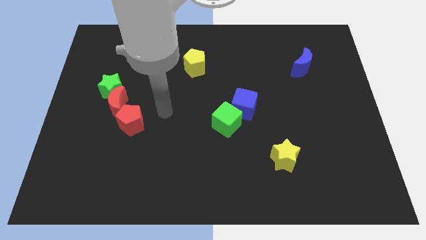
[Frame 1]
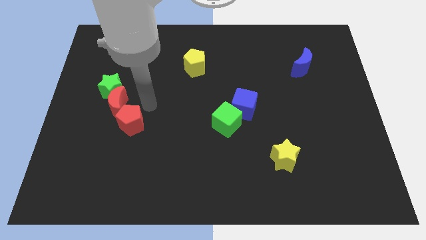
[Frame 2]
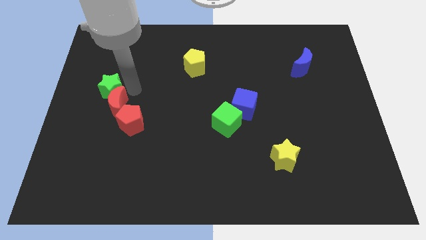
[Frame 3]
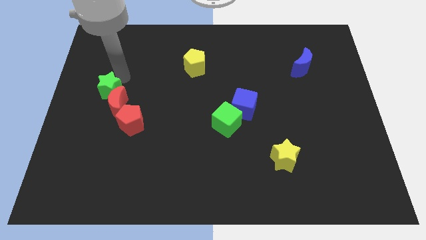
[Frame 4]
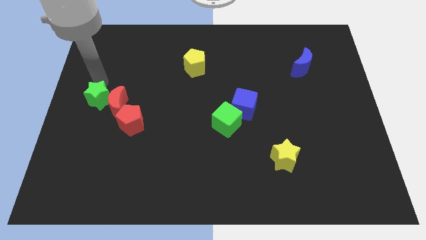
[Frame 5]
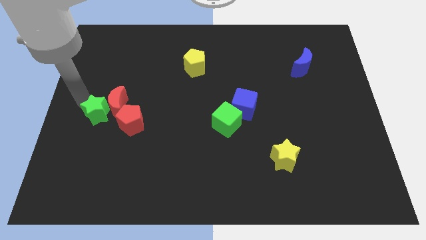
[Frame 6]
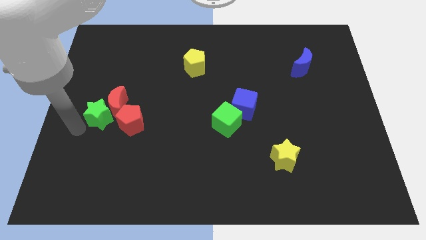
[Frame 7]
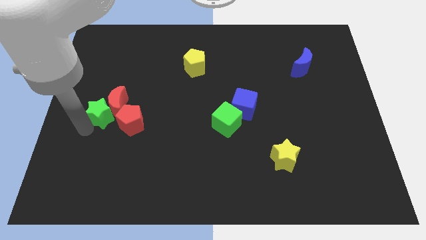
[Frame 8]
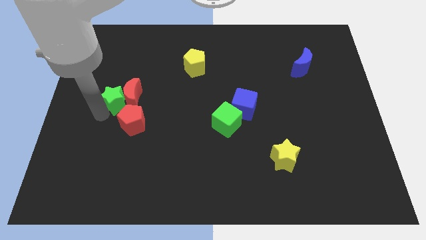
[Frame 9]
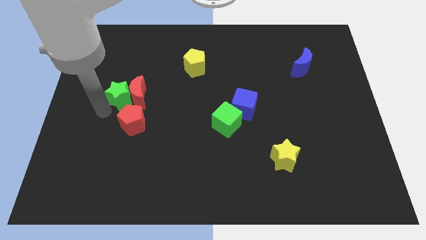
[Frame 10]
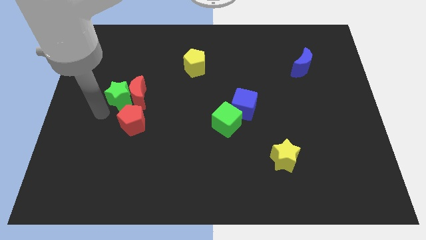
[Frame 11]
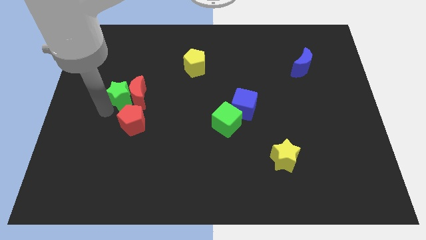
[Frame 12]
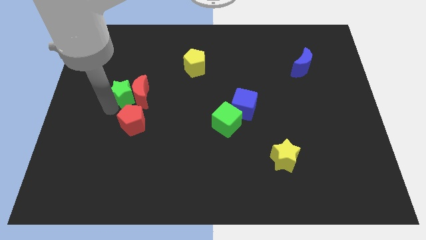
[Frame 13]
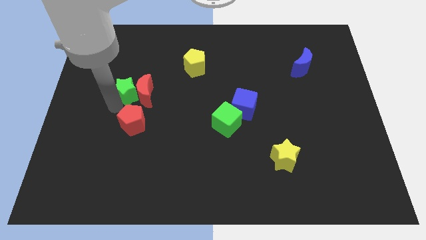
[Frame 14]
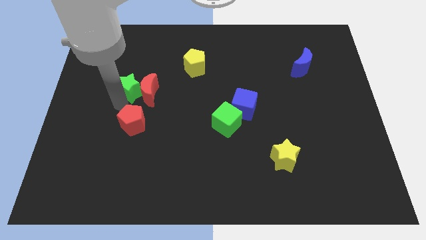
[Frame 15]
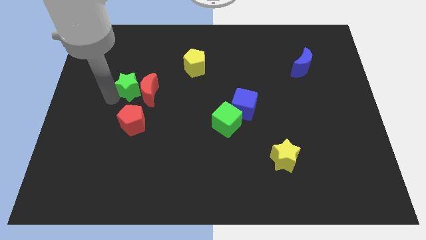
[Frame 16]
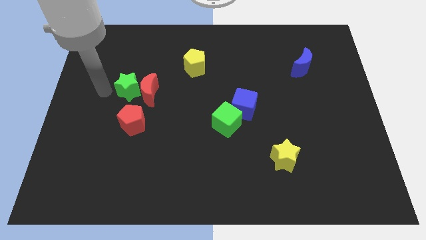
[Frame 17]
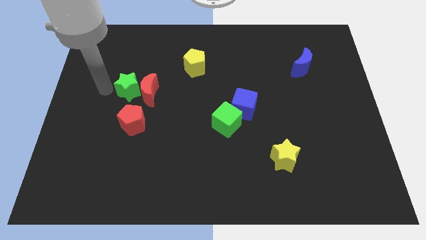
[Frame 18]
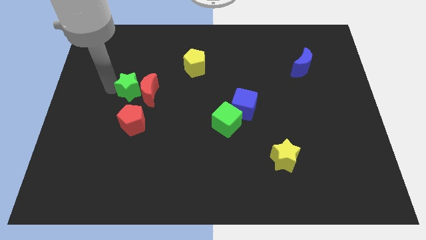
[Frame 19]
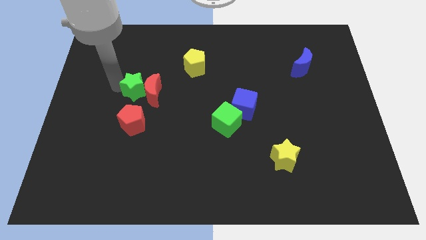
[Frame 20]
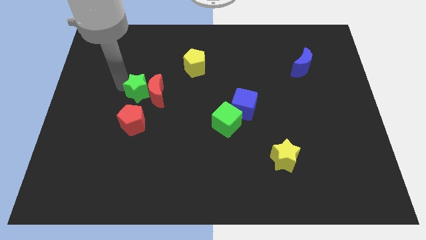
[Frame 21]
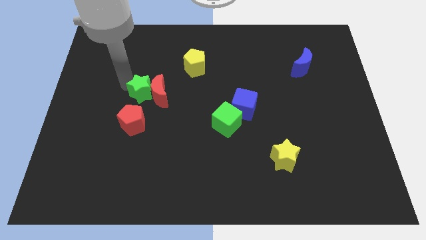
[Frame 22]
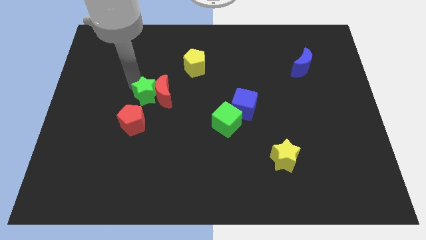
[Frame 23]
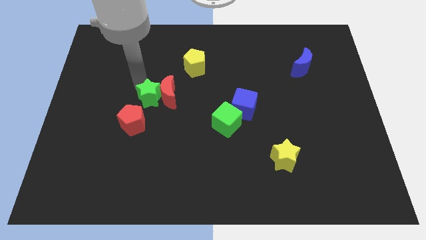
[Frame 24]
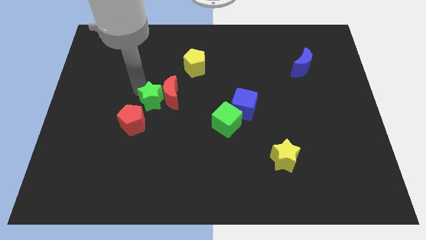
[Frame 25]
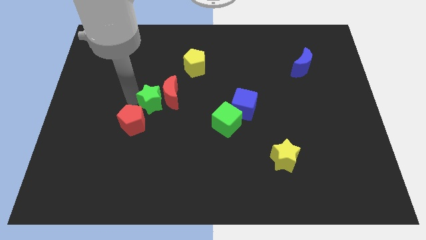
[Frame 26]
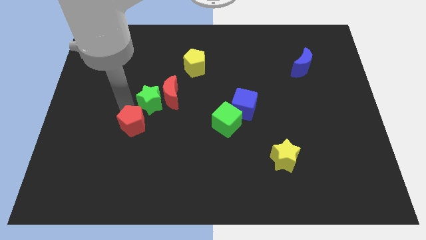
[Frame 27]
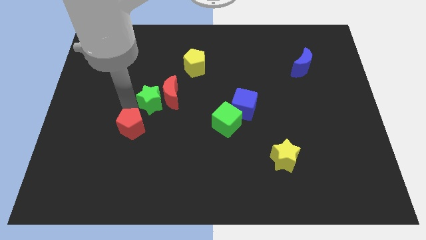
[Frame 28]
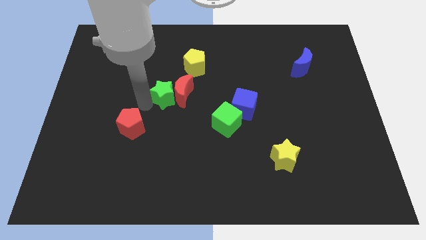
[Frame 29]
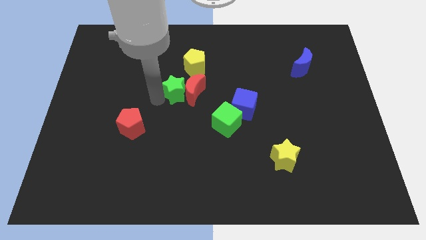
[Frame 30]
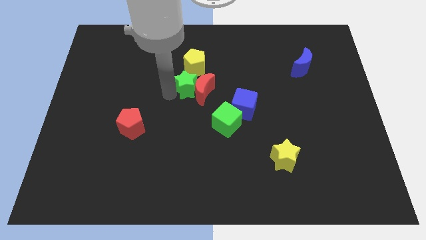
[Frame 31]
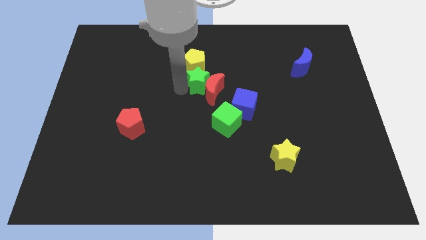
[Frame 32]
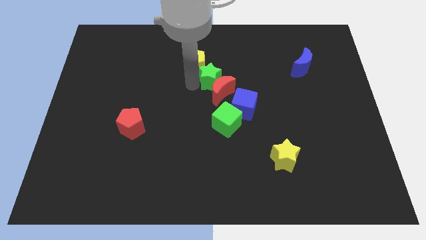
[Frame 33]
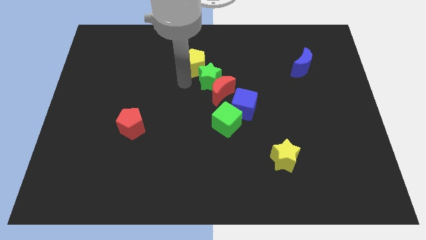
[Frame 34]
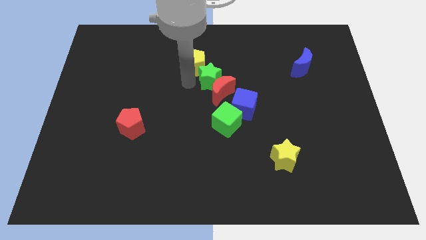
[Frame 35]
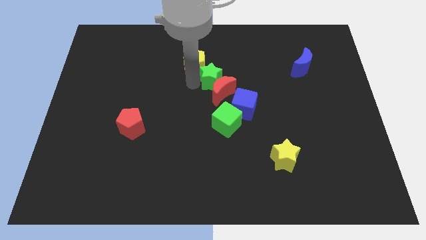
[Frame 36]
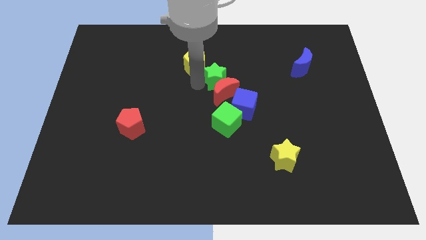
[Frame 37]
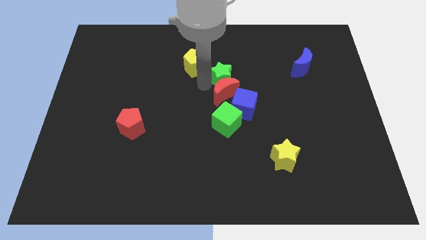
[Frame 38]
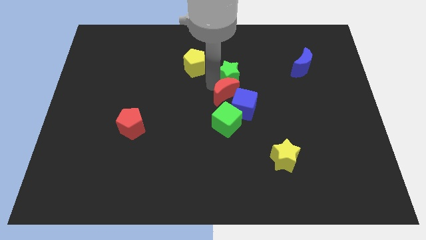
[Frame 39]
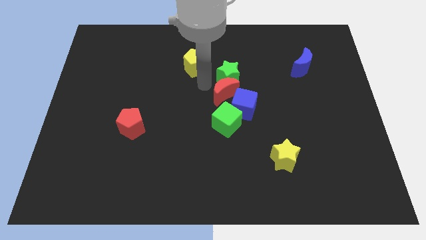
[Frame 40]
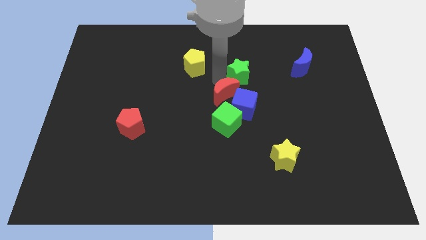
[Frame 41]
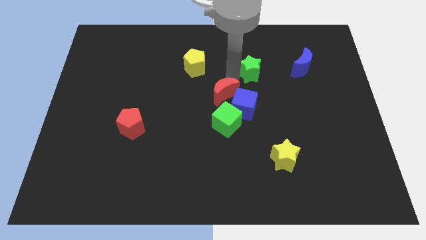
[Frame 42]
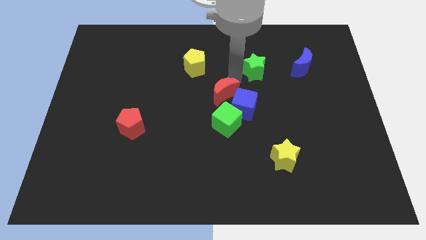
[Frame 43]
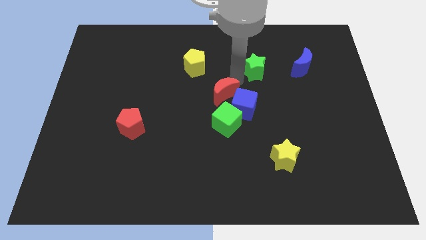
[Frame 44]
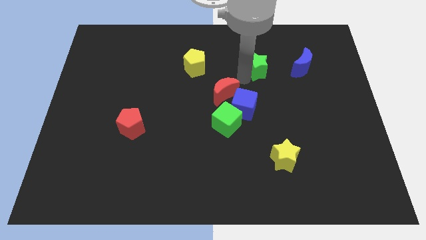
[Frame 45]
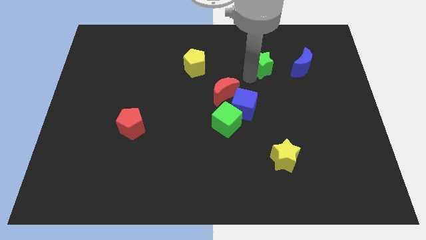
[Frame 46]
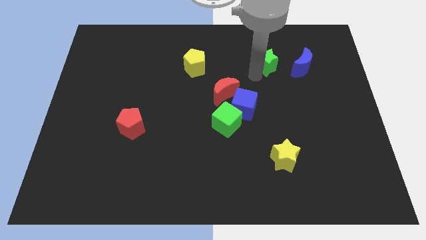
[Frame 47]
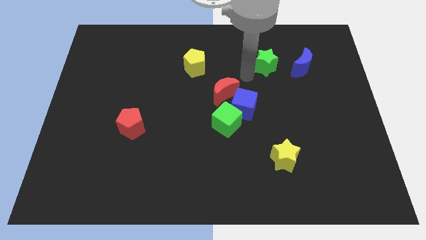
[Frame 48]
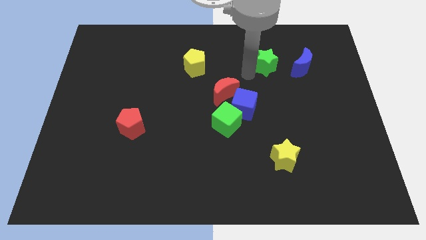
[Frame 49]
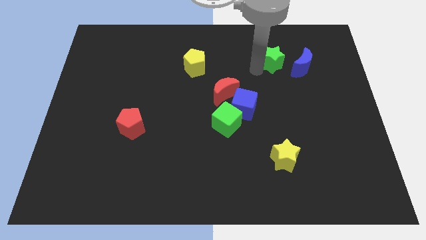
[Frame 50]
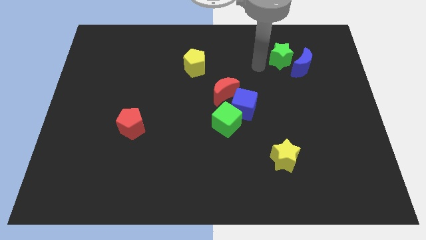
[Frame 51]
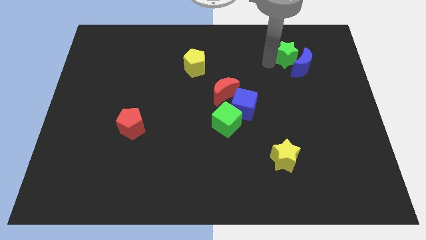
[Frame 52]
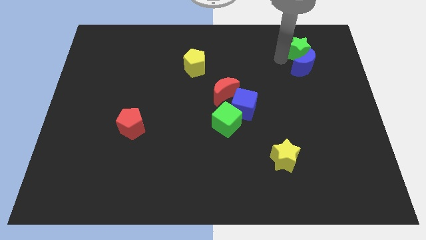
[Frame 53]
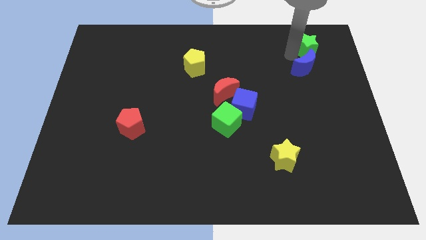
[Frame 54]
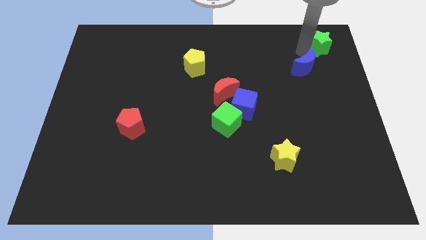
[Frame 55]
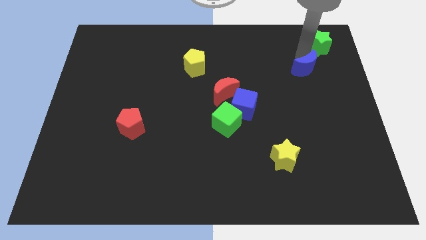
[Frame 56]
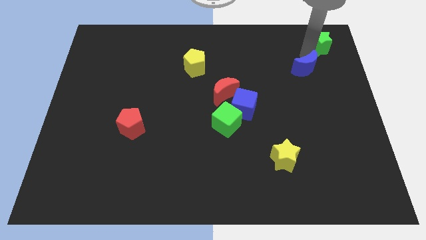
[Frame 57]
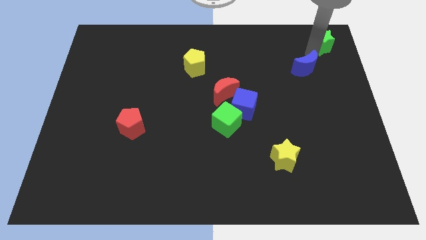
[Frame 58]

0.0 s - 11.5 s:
move the green star to the top right corner
